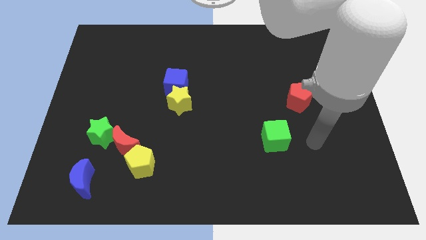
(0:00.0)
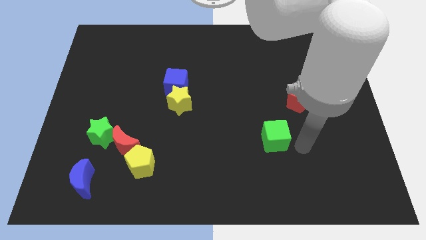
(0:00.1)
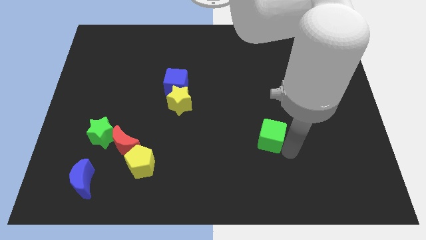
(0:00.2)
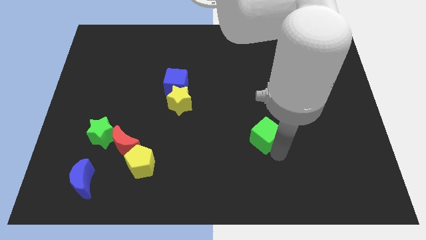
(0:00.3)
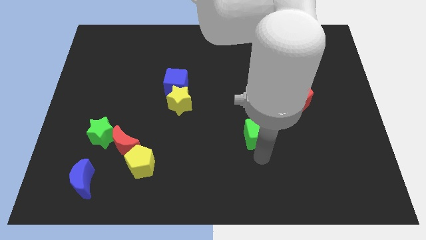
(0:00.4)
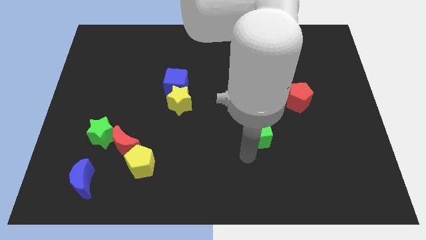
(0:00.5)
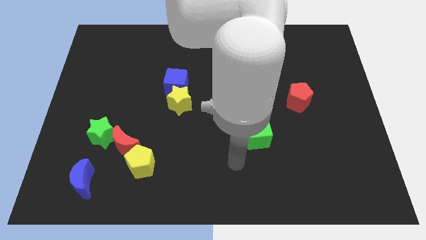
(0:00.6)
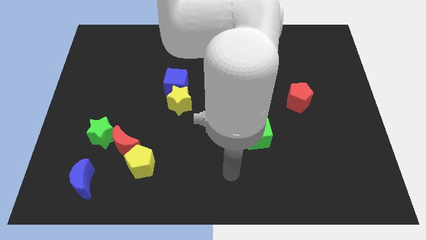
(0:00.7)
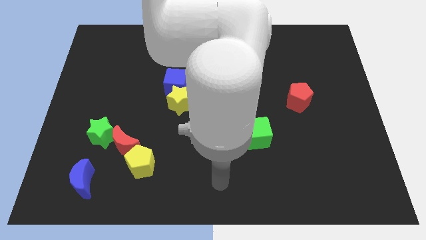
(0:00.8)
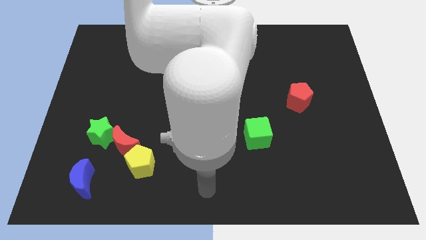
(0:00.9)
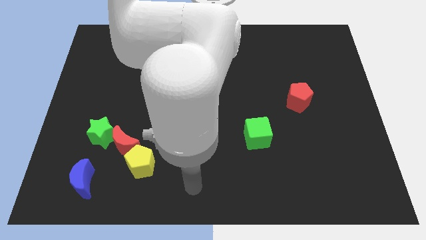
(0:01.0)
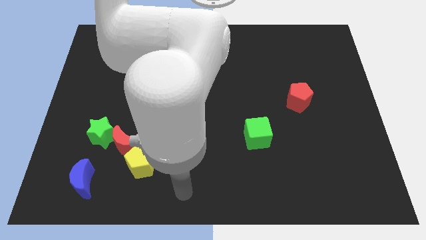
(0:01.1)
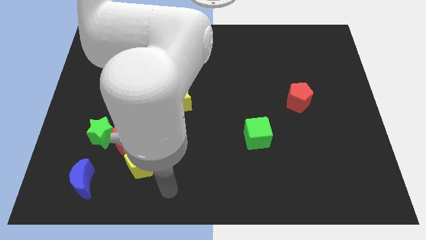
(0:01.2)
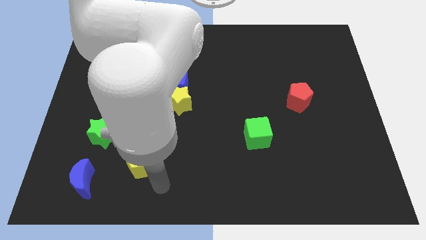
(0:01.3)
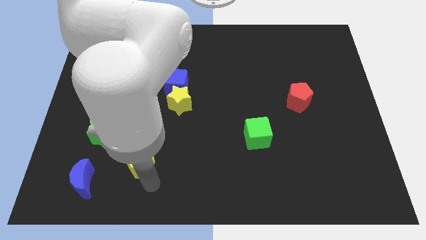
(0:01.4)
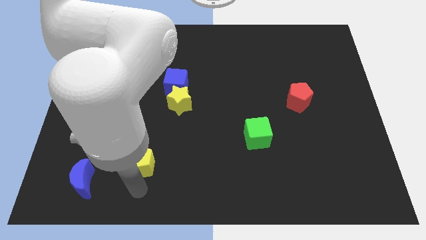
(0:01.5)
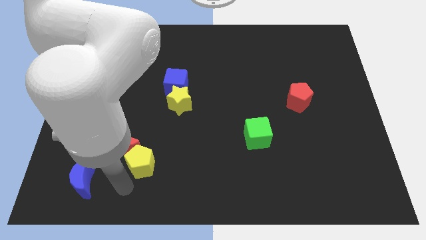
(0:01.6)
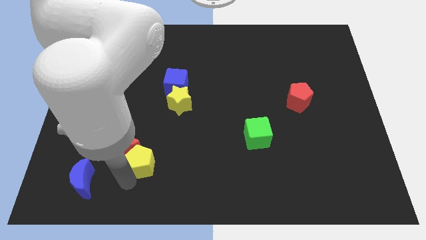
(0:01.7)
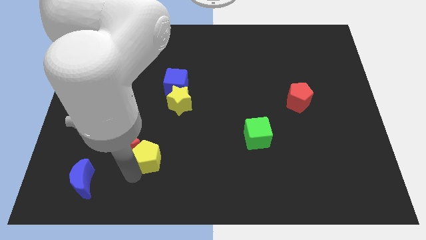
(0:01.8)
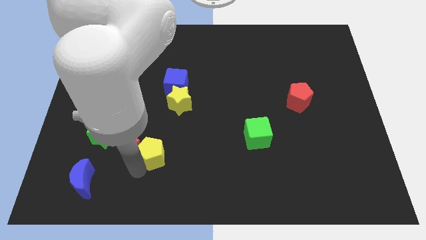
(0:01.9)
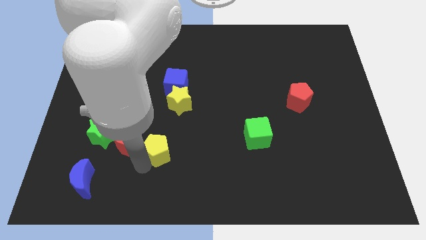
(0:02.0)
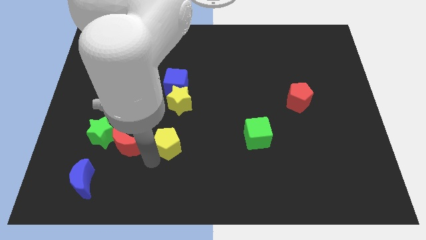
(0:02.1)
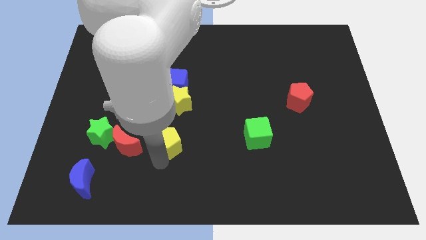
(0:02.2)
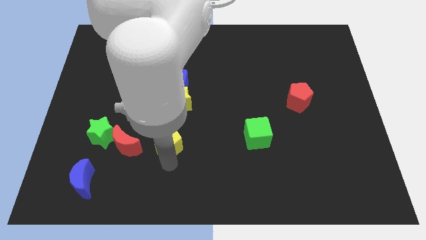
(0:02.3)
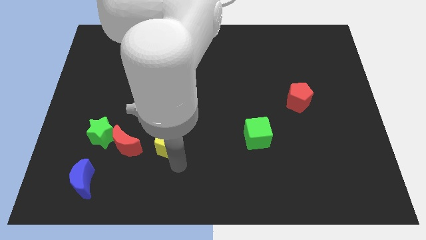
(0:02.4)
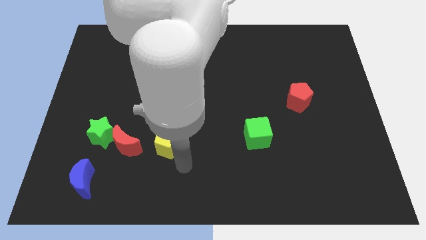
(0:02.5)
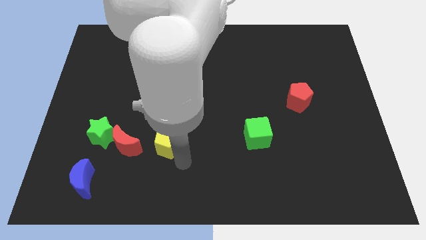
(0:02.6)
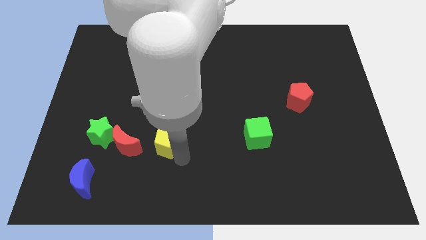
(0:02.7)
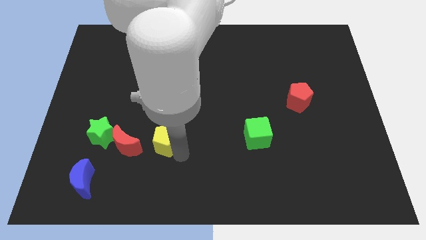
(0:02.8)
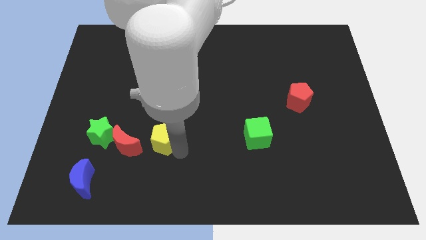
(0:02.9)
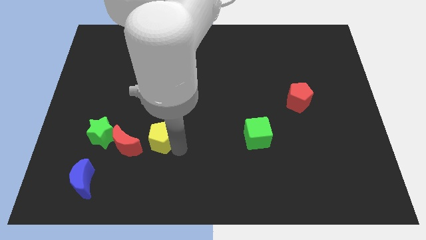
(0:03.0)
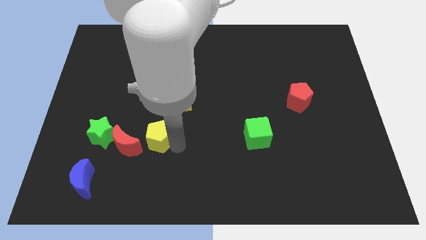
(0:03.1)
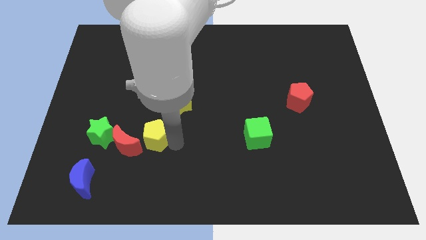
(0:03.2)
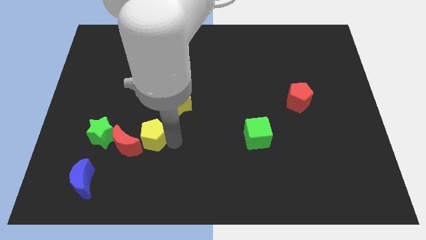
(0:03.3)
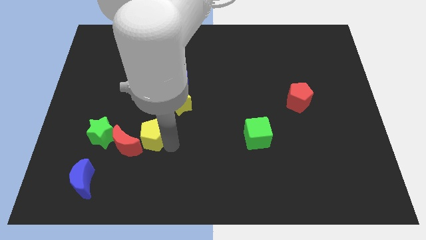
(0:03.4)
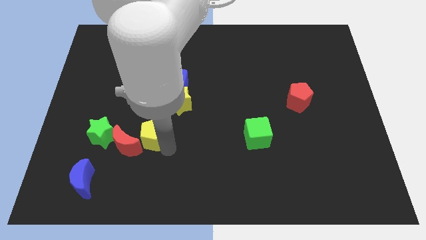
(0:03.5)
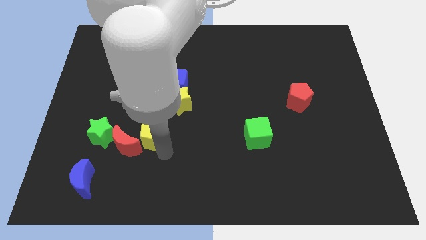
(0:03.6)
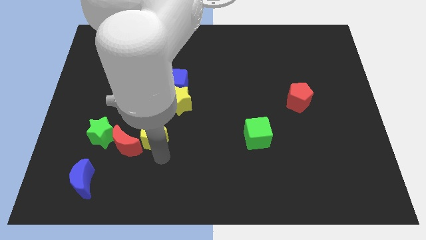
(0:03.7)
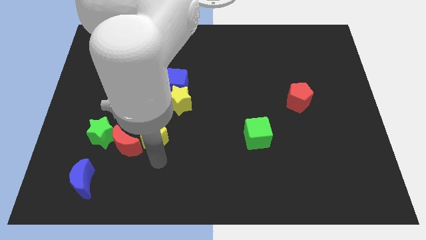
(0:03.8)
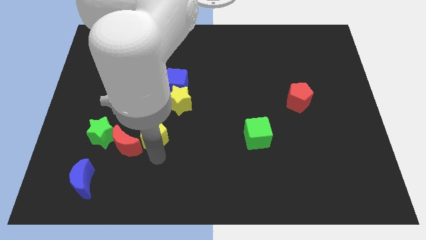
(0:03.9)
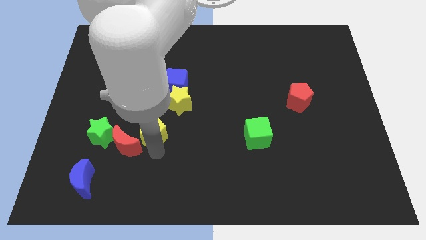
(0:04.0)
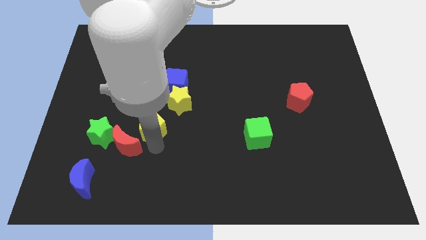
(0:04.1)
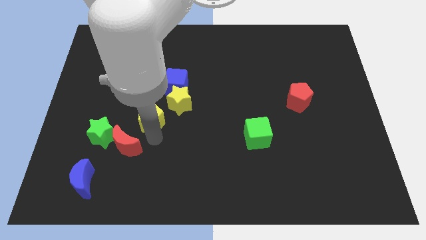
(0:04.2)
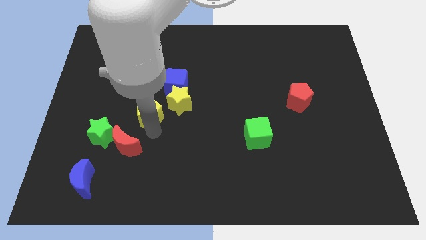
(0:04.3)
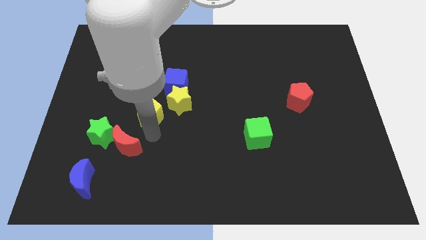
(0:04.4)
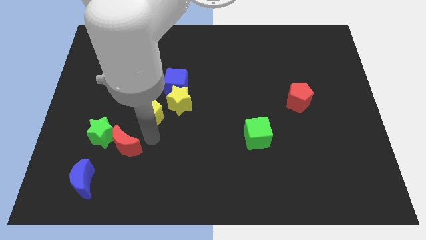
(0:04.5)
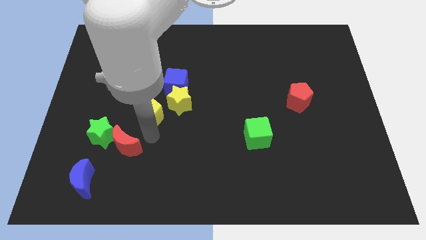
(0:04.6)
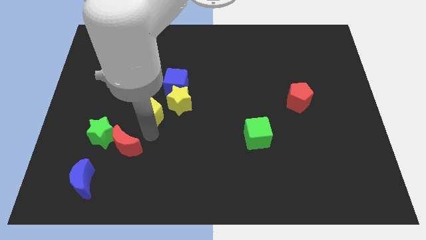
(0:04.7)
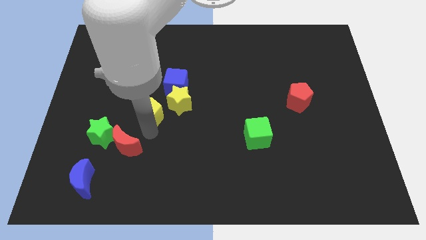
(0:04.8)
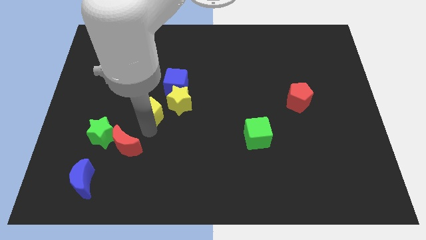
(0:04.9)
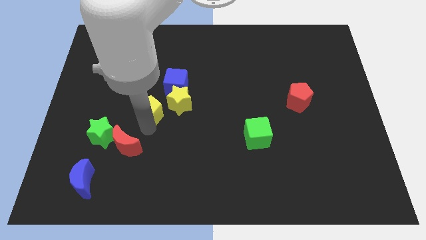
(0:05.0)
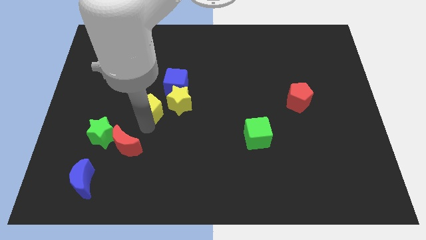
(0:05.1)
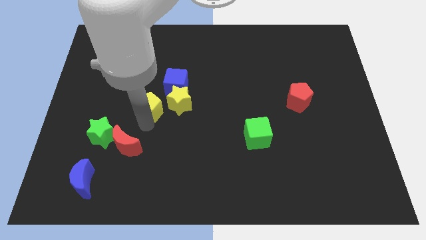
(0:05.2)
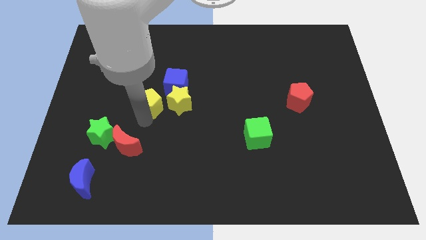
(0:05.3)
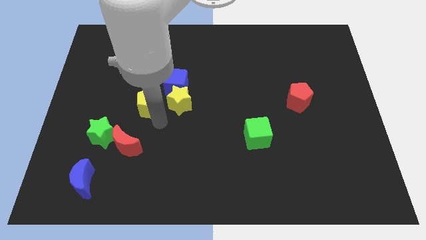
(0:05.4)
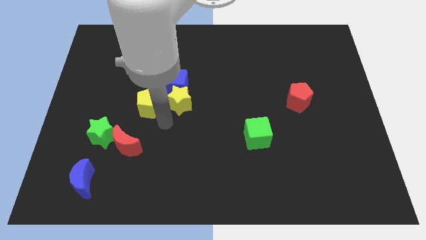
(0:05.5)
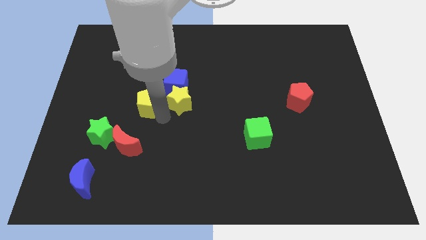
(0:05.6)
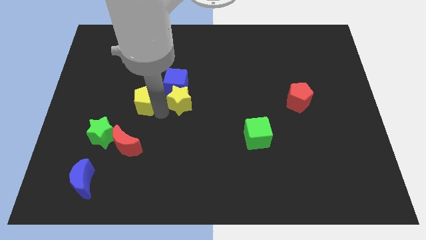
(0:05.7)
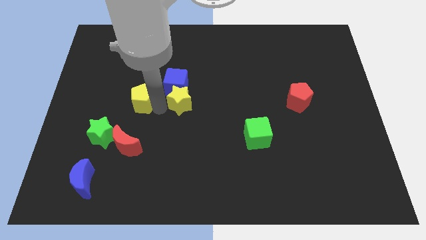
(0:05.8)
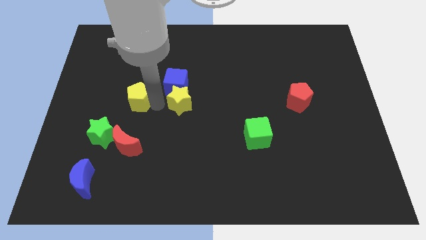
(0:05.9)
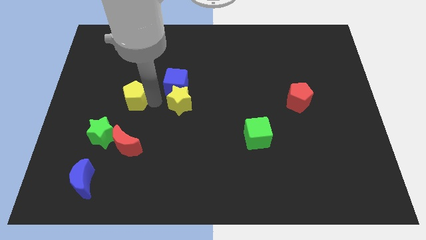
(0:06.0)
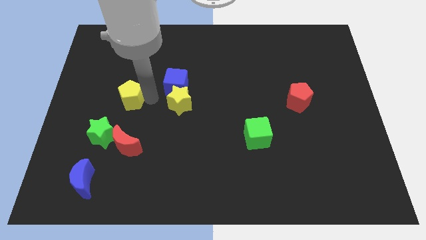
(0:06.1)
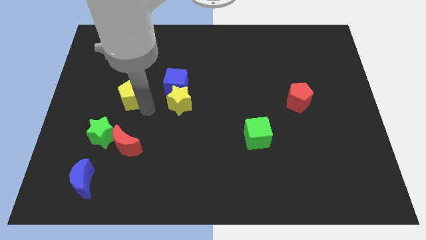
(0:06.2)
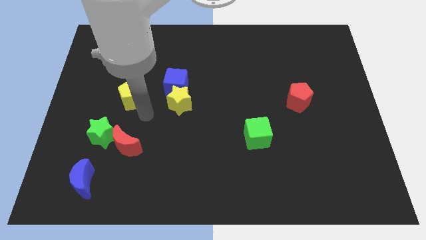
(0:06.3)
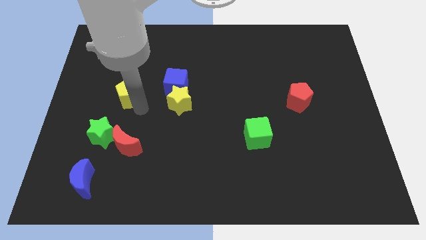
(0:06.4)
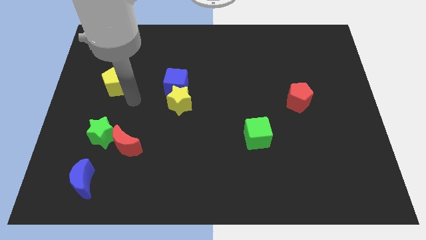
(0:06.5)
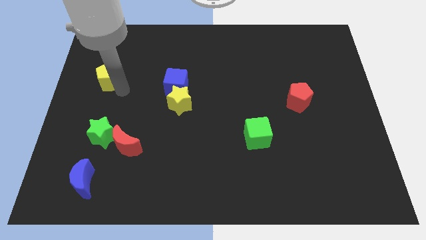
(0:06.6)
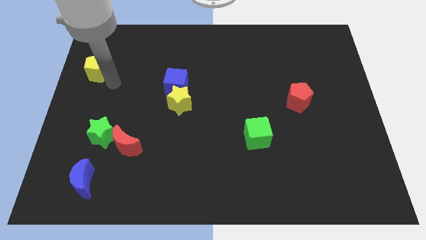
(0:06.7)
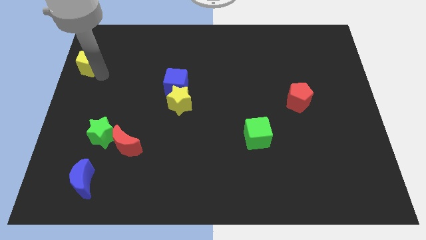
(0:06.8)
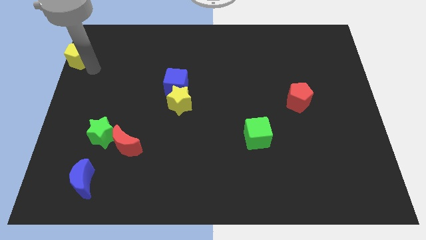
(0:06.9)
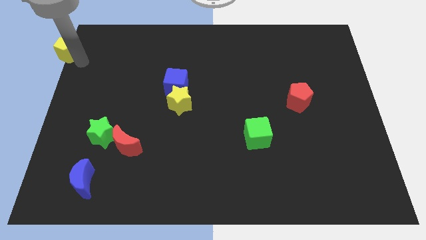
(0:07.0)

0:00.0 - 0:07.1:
slide the yellow pentagon to the top left corner
